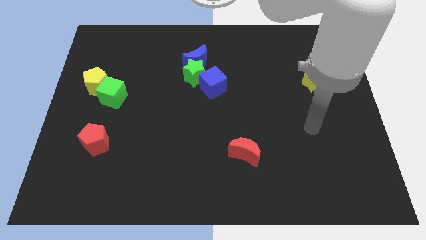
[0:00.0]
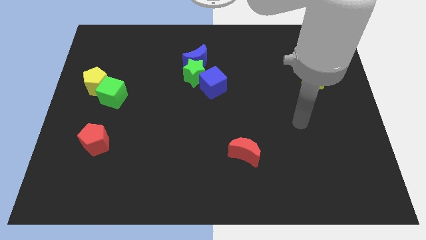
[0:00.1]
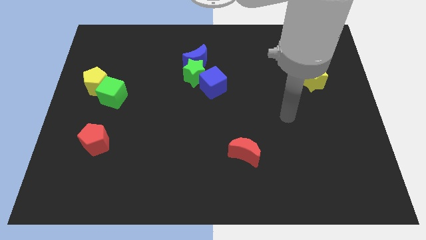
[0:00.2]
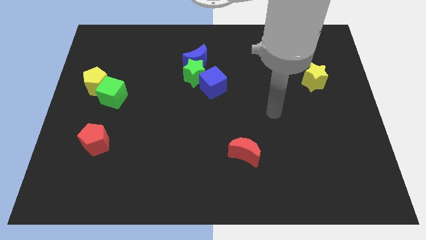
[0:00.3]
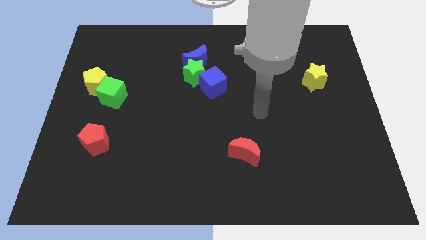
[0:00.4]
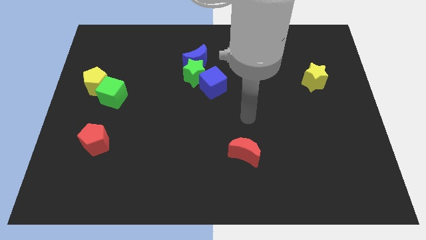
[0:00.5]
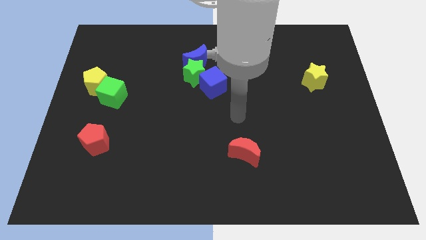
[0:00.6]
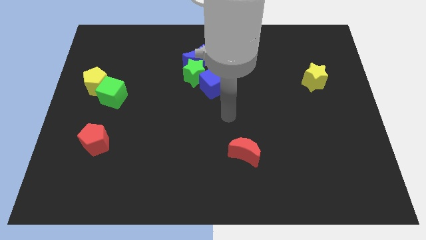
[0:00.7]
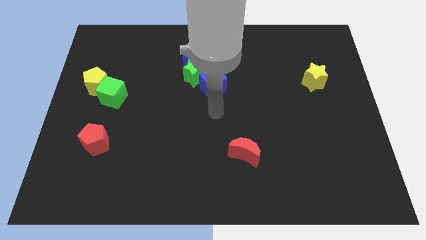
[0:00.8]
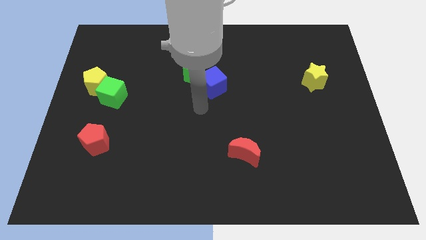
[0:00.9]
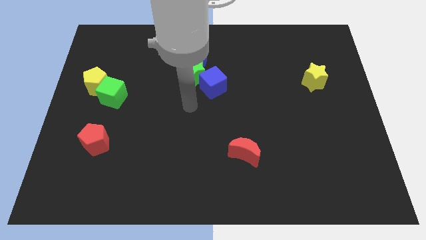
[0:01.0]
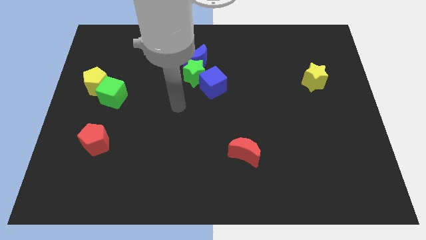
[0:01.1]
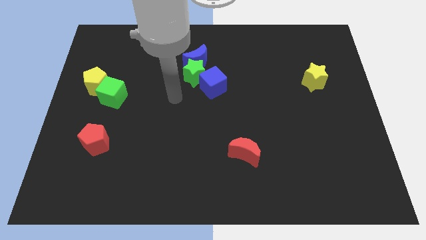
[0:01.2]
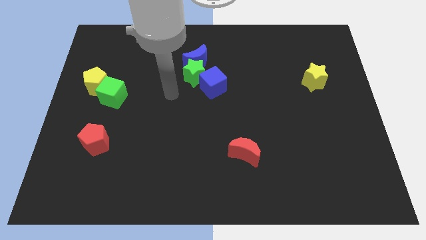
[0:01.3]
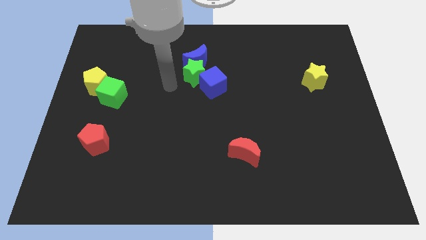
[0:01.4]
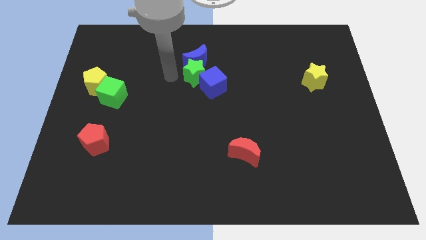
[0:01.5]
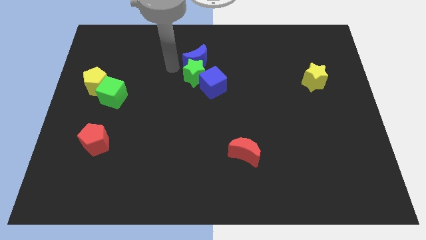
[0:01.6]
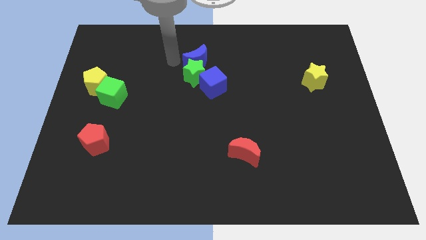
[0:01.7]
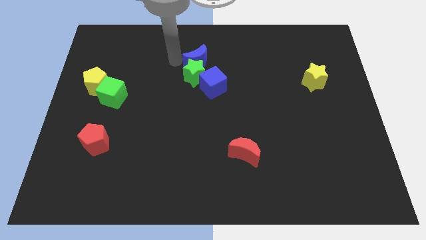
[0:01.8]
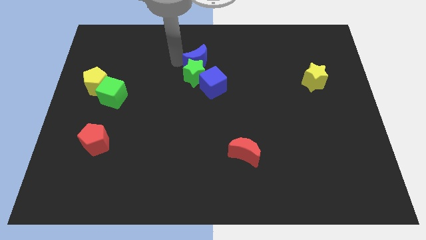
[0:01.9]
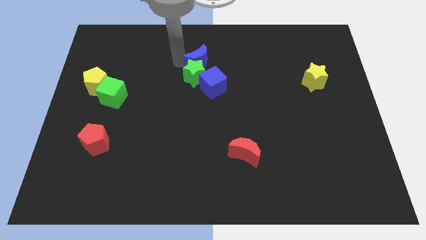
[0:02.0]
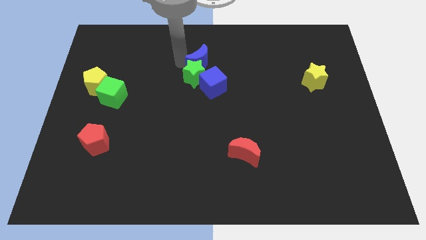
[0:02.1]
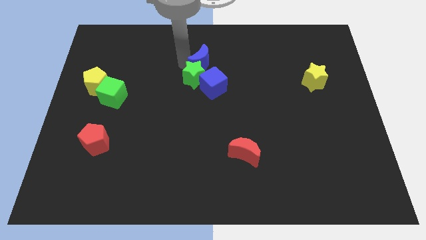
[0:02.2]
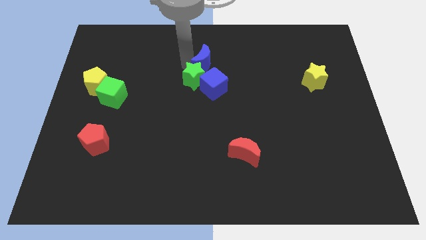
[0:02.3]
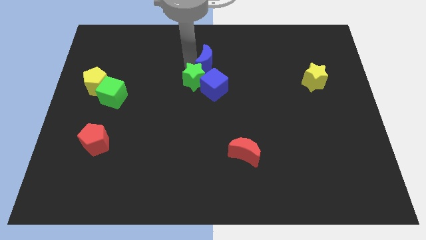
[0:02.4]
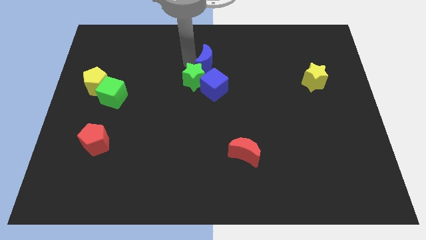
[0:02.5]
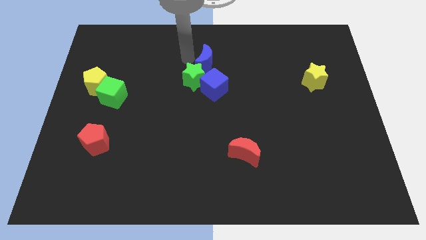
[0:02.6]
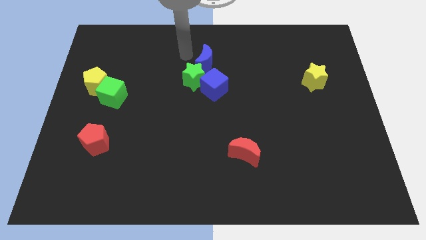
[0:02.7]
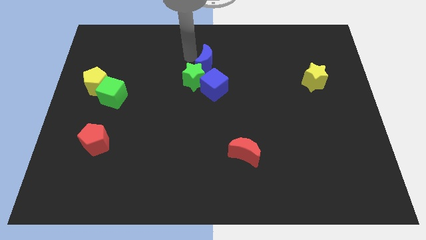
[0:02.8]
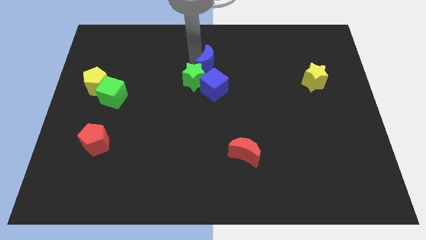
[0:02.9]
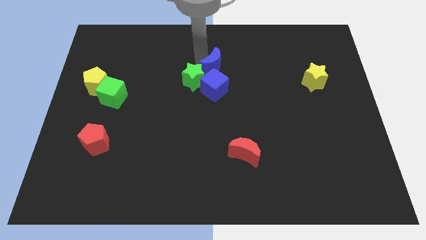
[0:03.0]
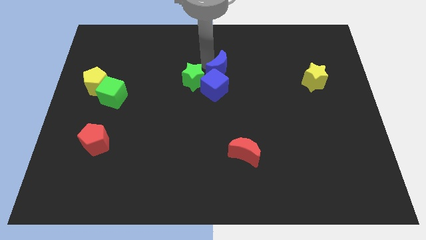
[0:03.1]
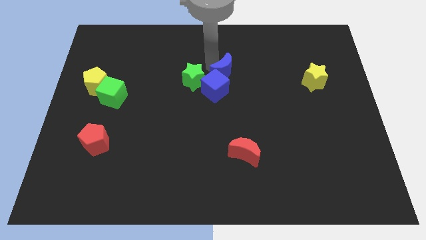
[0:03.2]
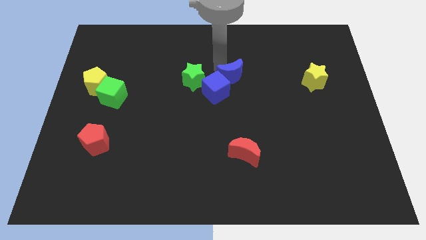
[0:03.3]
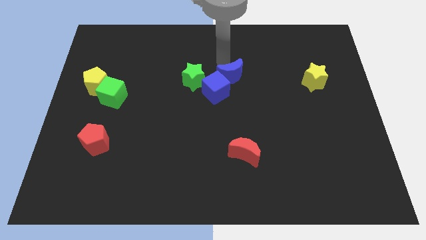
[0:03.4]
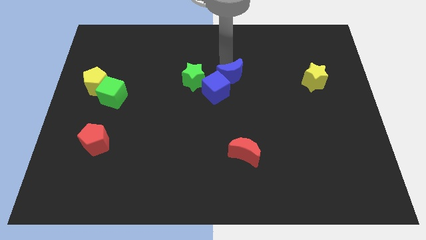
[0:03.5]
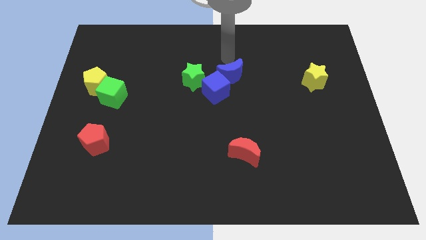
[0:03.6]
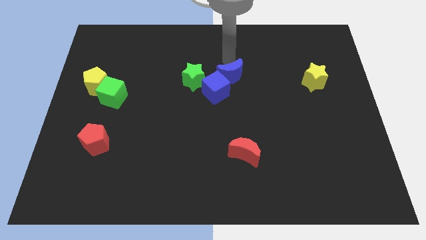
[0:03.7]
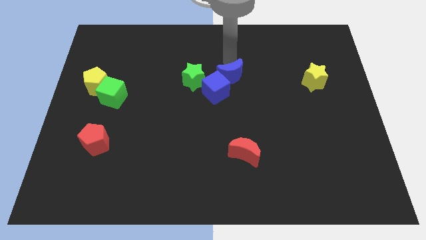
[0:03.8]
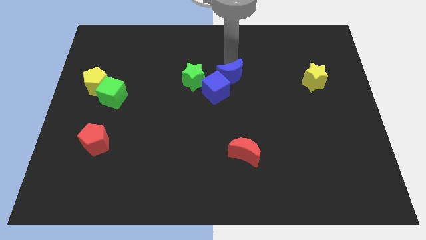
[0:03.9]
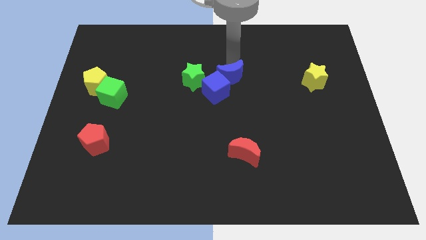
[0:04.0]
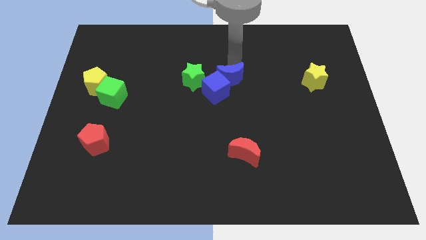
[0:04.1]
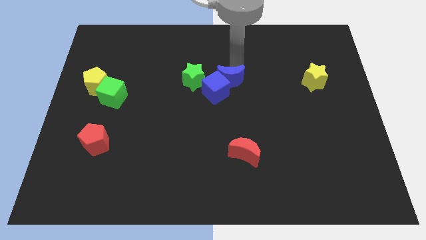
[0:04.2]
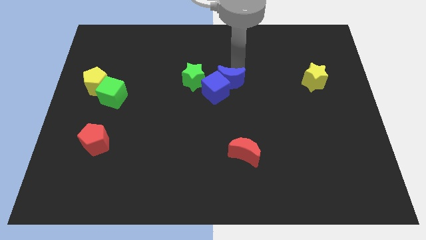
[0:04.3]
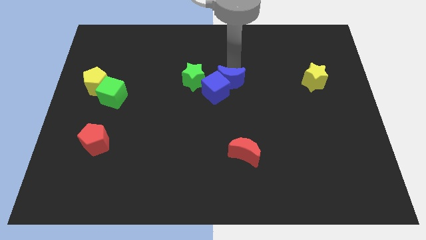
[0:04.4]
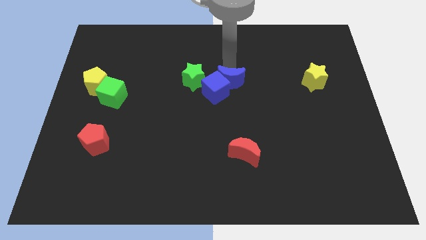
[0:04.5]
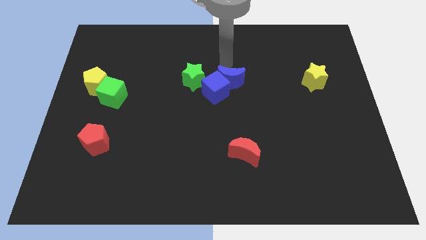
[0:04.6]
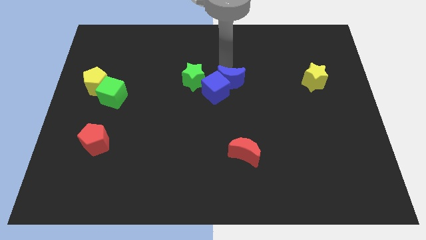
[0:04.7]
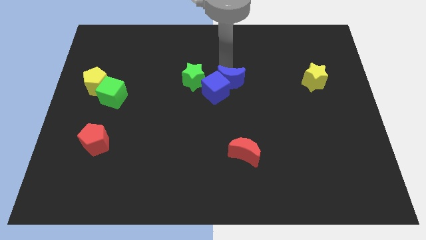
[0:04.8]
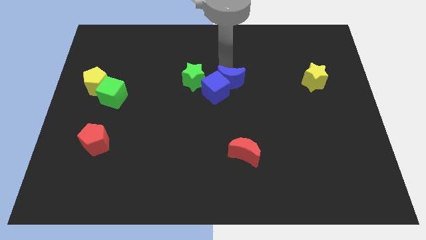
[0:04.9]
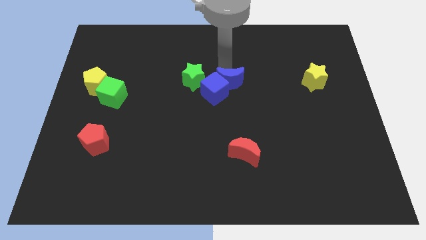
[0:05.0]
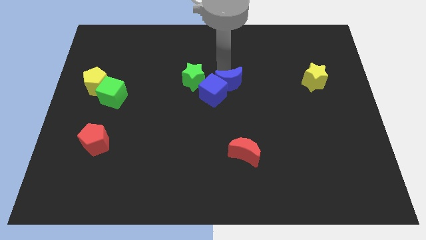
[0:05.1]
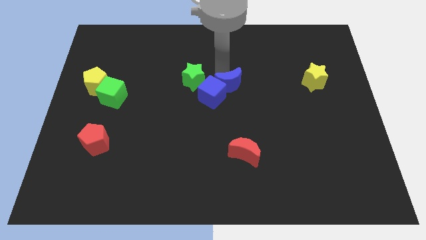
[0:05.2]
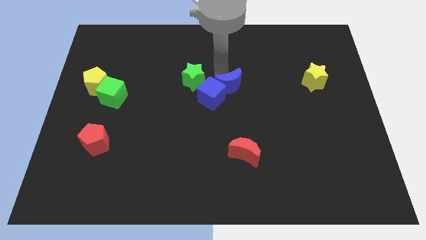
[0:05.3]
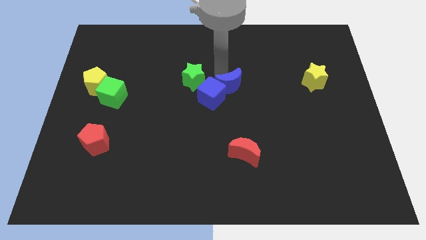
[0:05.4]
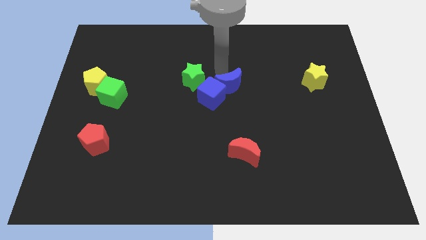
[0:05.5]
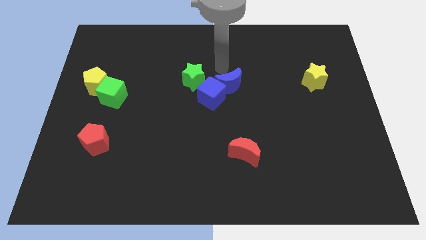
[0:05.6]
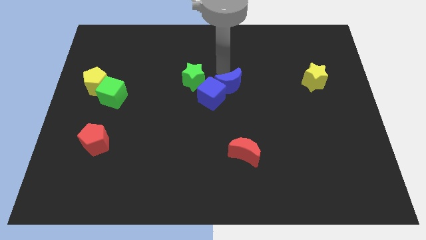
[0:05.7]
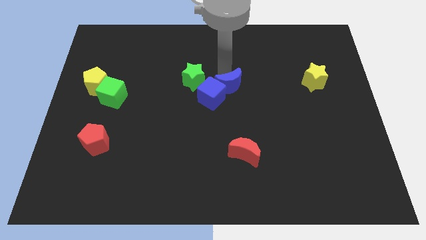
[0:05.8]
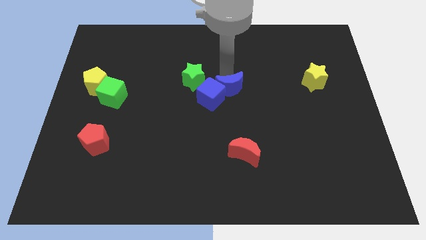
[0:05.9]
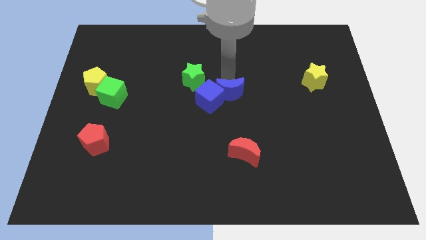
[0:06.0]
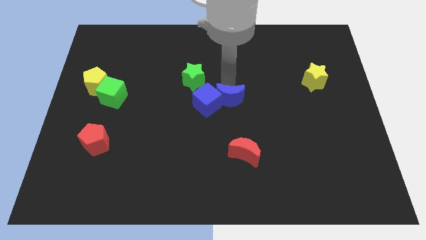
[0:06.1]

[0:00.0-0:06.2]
slide the blue moon to the top of the red moon
